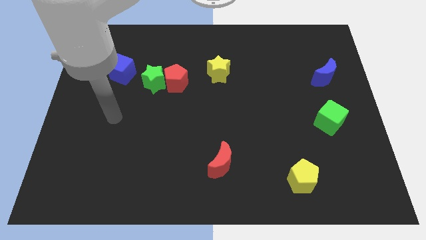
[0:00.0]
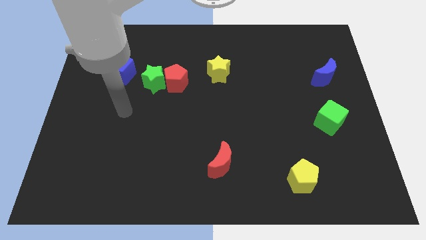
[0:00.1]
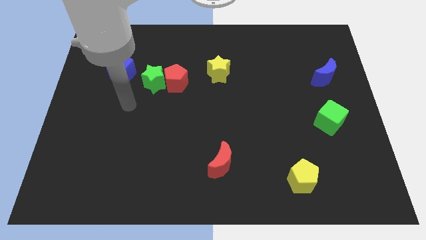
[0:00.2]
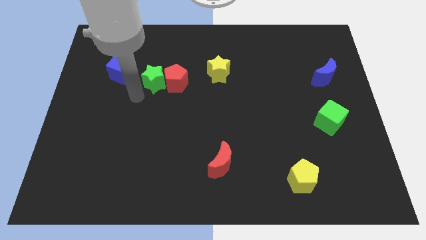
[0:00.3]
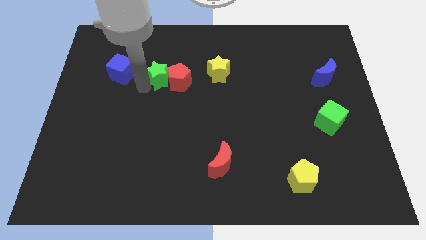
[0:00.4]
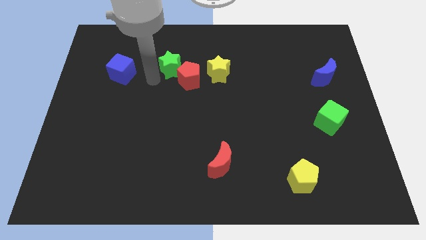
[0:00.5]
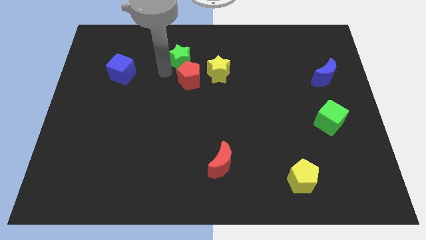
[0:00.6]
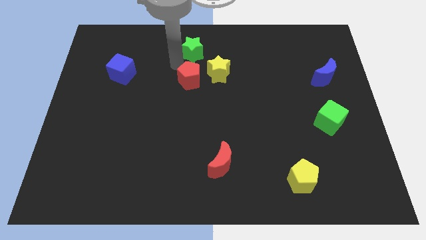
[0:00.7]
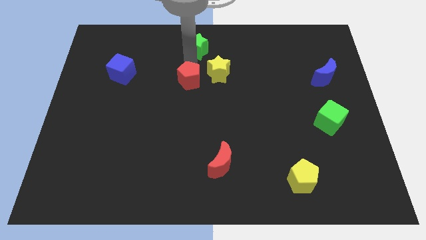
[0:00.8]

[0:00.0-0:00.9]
separate the red pentagon from the green star

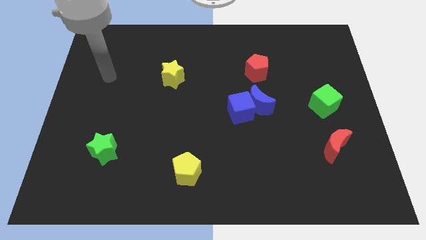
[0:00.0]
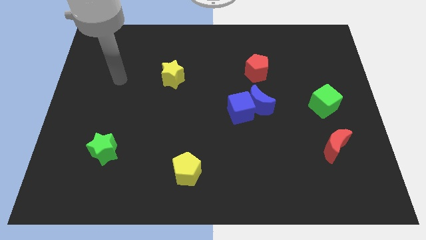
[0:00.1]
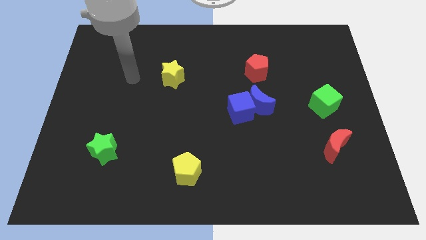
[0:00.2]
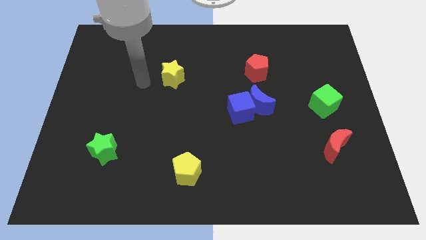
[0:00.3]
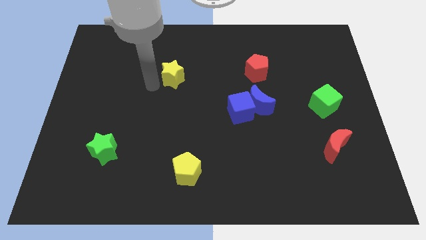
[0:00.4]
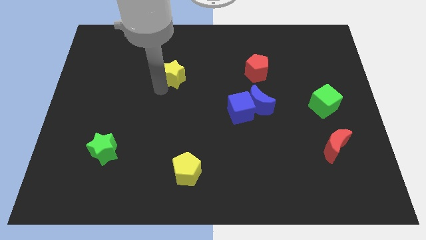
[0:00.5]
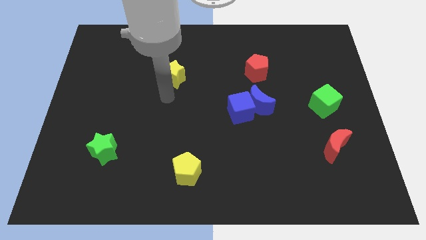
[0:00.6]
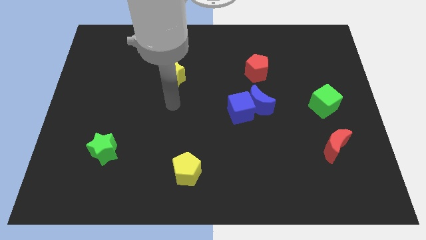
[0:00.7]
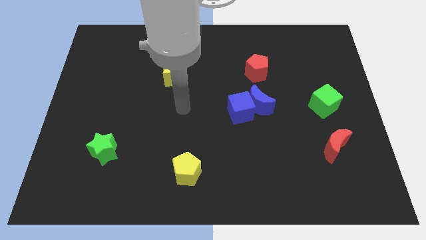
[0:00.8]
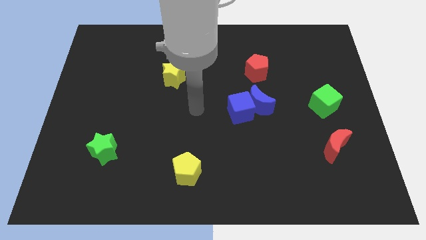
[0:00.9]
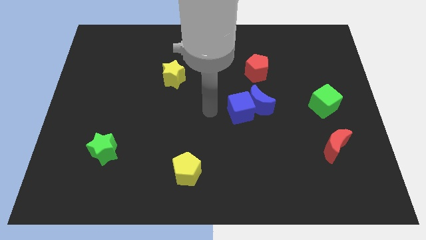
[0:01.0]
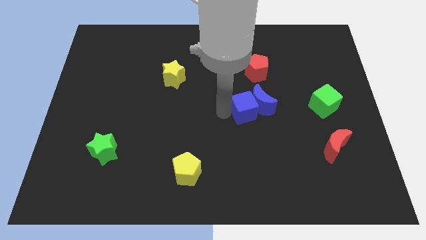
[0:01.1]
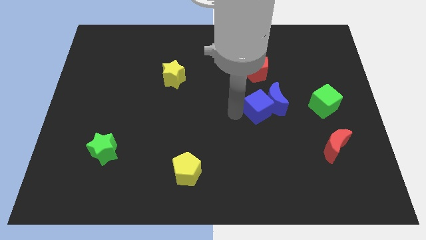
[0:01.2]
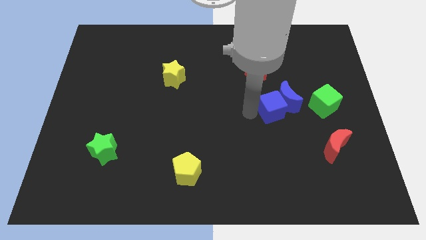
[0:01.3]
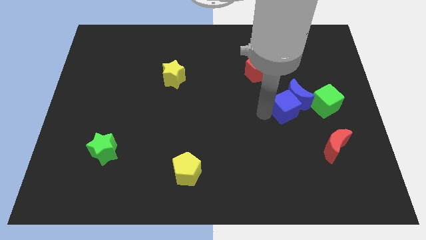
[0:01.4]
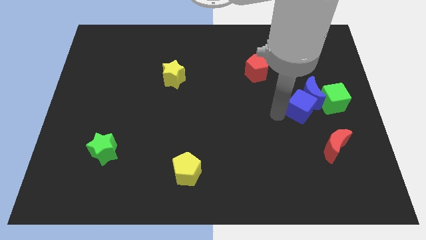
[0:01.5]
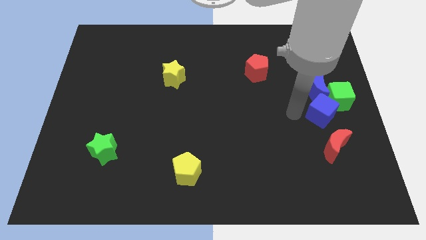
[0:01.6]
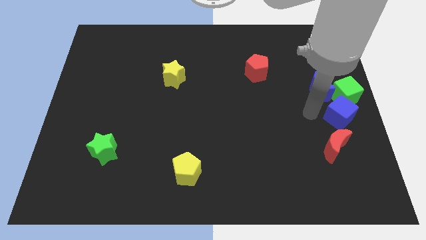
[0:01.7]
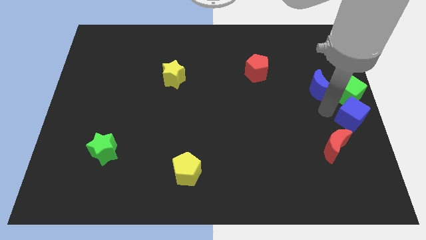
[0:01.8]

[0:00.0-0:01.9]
separate the blue moon from the blue cube

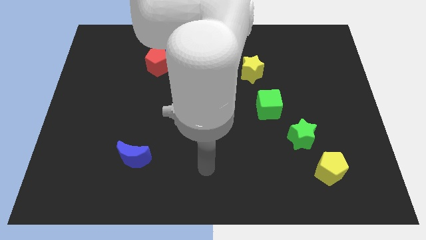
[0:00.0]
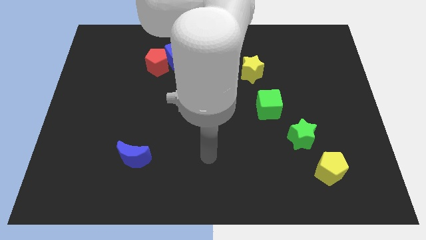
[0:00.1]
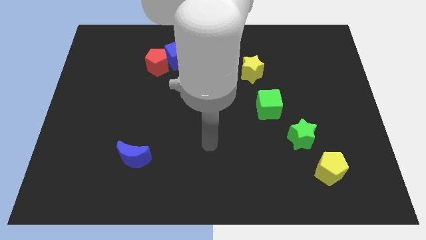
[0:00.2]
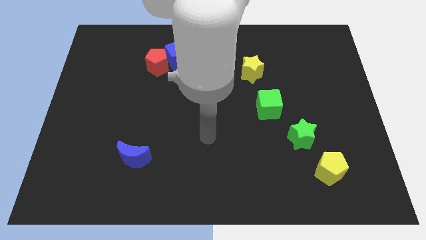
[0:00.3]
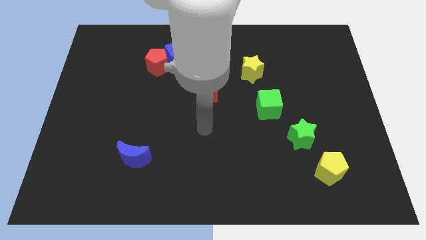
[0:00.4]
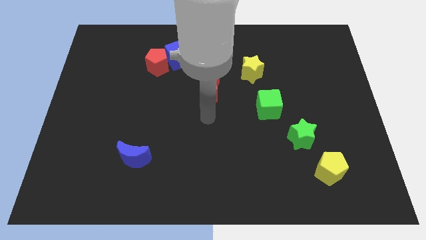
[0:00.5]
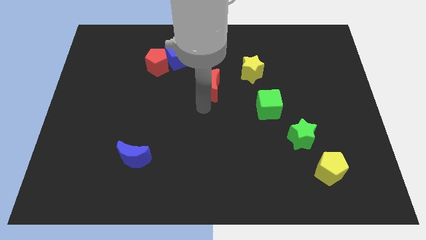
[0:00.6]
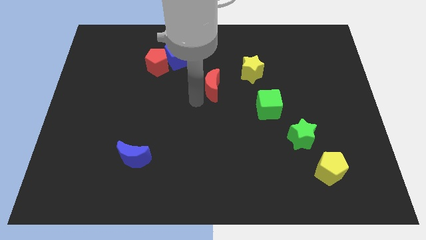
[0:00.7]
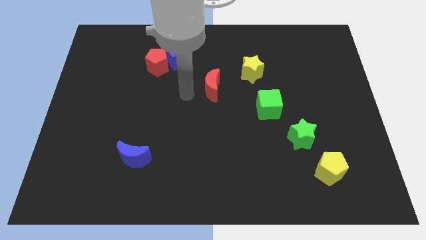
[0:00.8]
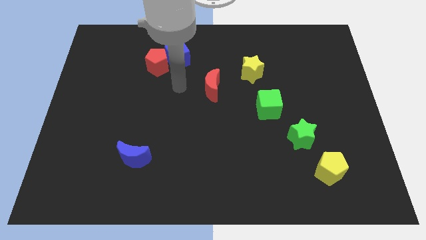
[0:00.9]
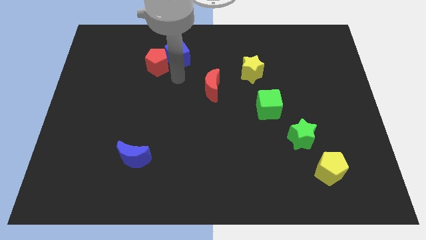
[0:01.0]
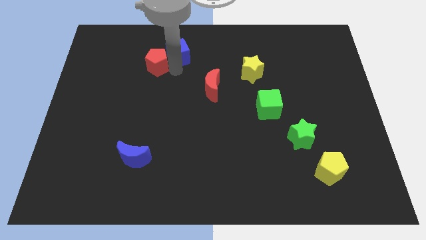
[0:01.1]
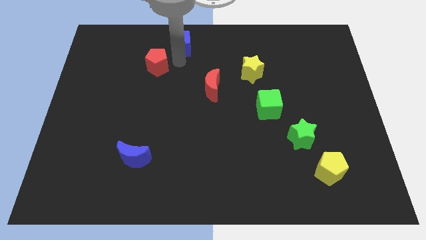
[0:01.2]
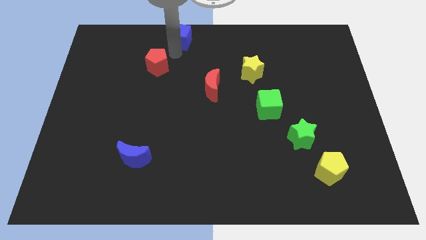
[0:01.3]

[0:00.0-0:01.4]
move the red pentagon away from the blue cube

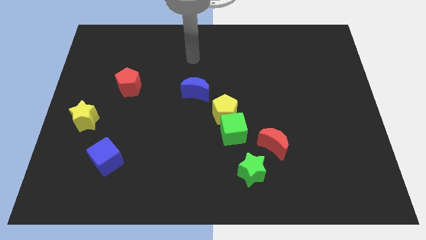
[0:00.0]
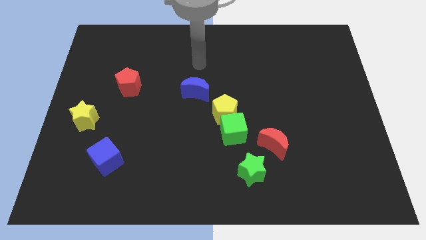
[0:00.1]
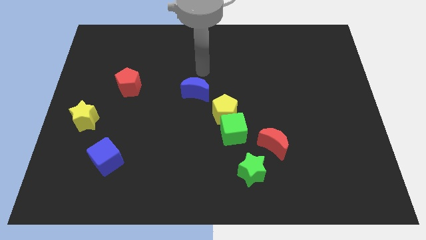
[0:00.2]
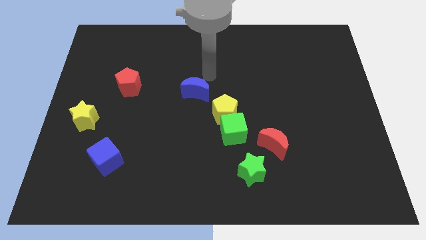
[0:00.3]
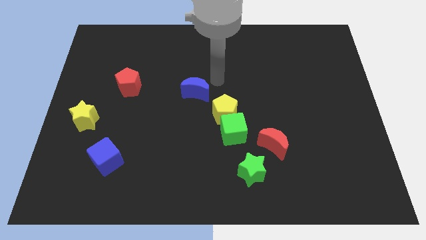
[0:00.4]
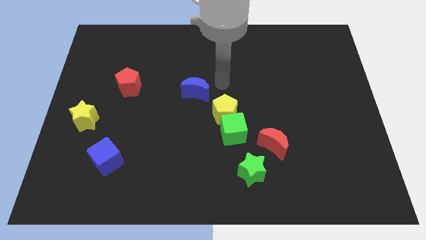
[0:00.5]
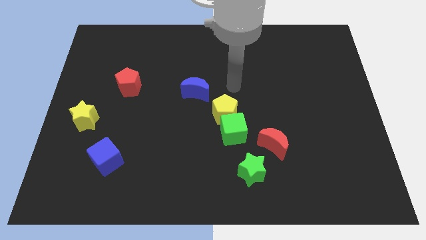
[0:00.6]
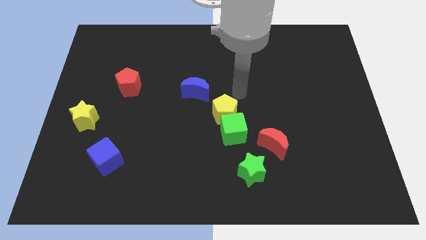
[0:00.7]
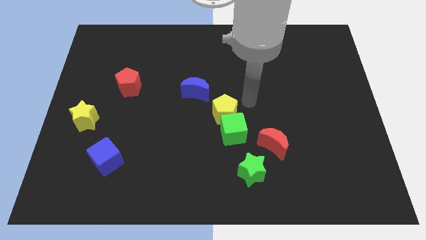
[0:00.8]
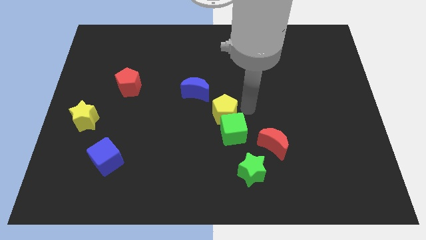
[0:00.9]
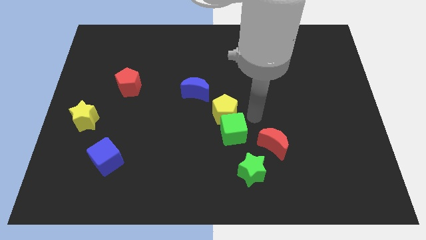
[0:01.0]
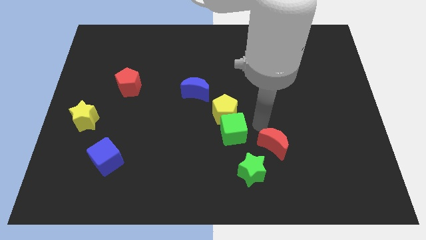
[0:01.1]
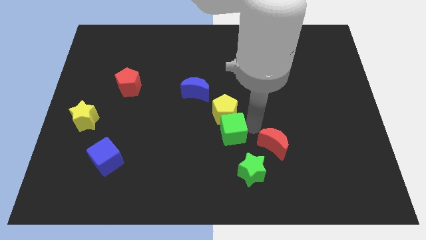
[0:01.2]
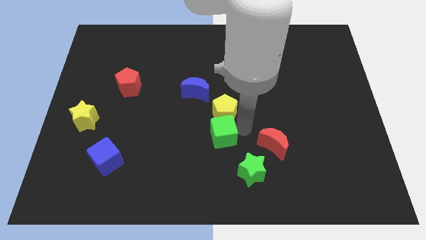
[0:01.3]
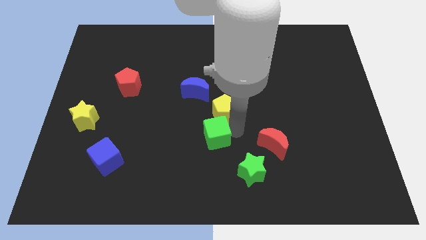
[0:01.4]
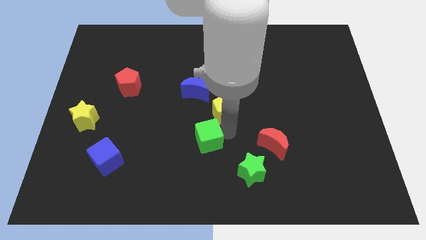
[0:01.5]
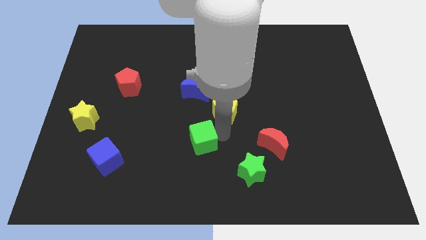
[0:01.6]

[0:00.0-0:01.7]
separate the green cube from the yellow pentagon and red moon

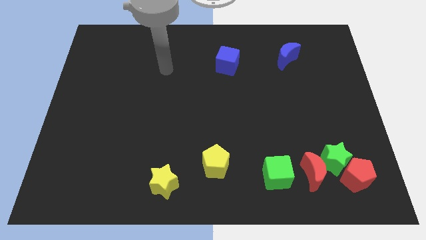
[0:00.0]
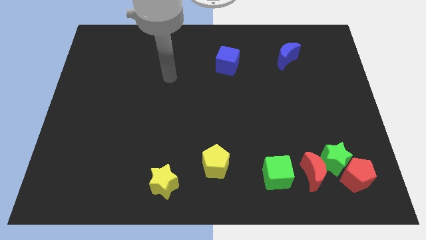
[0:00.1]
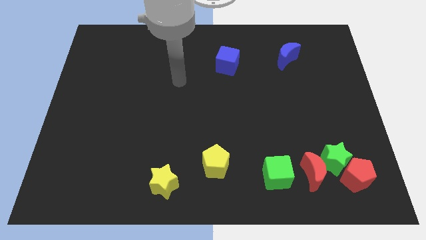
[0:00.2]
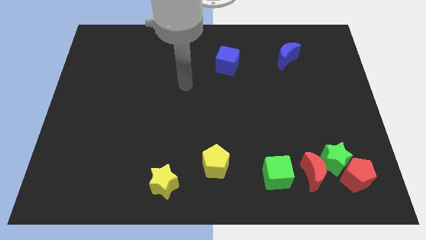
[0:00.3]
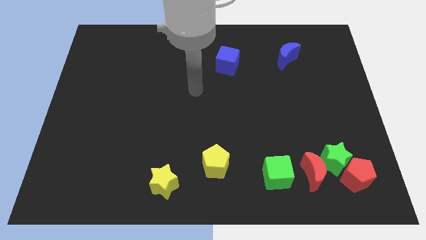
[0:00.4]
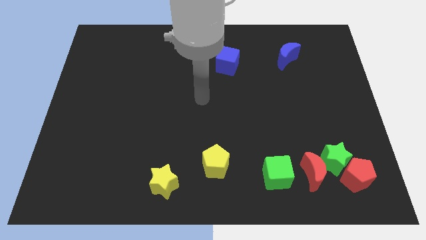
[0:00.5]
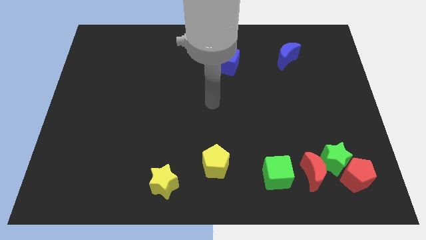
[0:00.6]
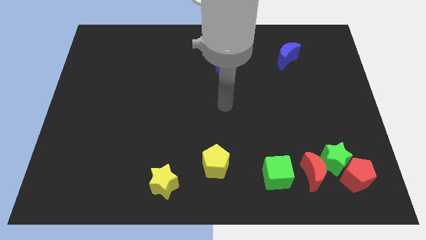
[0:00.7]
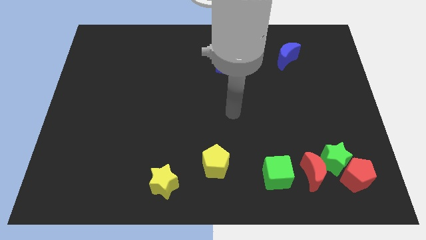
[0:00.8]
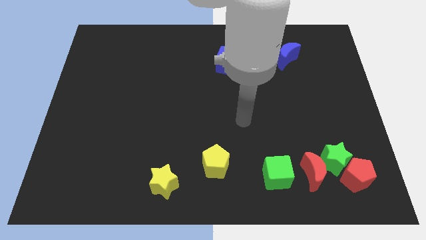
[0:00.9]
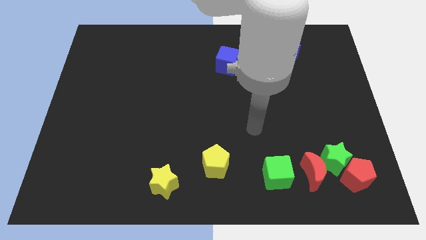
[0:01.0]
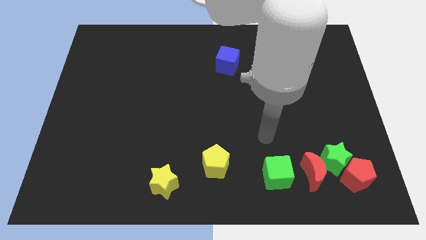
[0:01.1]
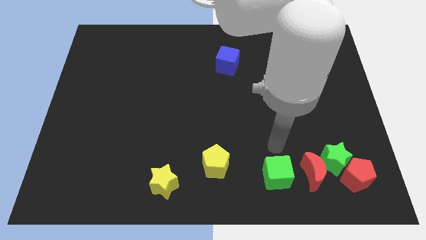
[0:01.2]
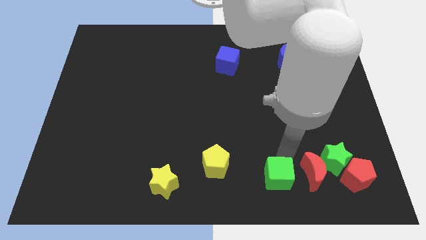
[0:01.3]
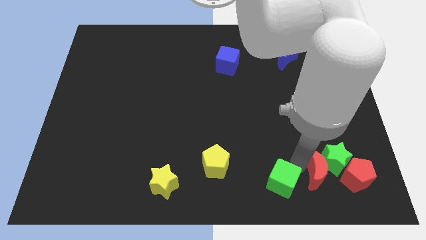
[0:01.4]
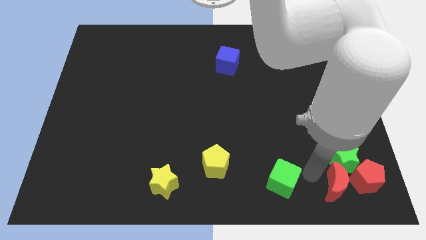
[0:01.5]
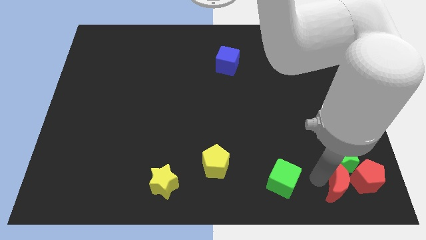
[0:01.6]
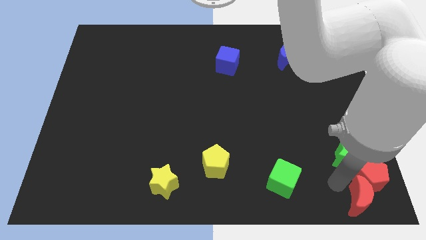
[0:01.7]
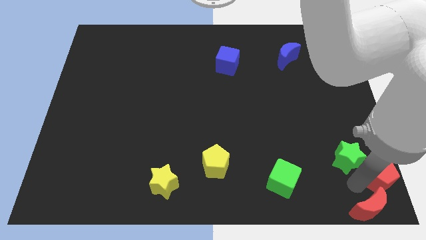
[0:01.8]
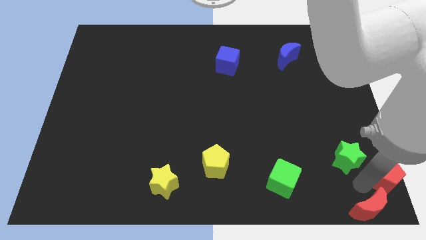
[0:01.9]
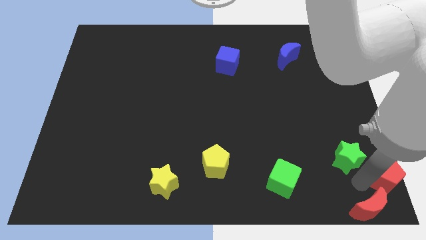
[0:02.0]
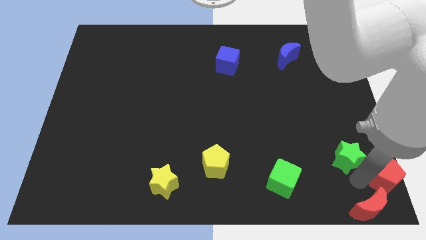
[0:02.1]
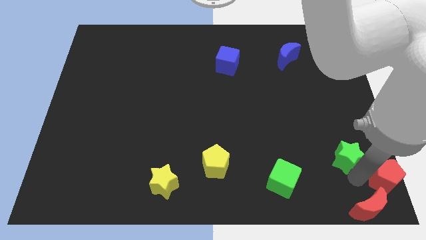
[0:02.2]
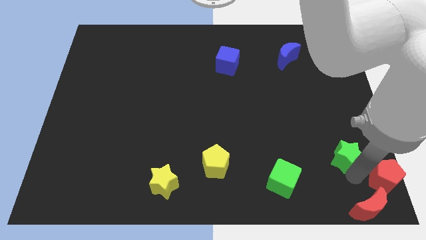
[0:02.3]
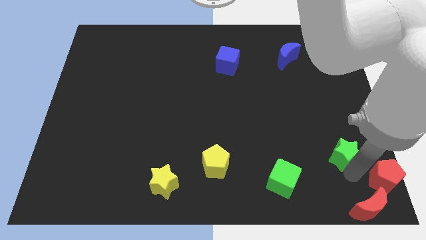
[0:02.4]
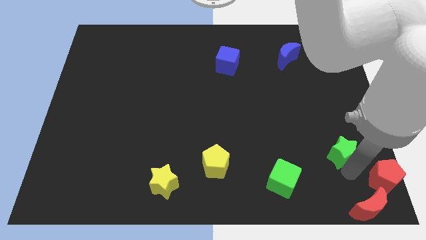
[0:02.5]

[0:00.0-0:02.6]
pull the green star apart from the red pentagon and red moon

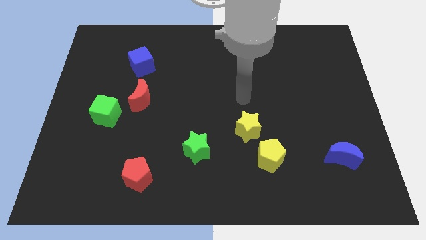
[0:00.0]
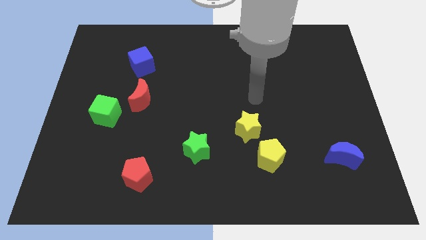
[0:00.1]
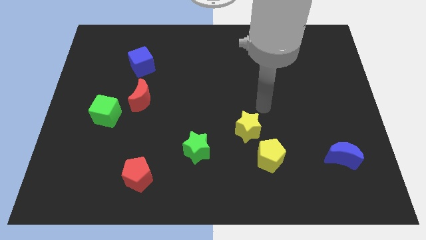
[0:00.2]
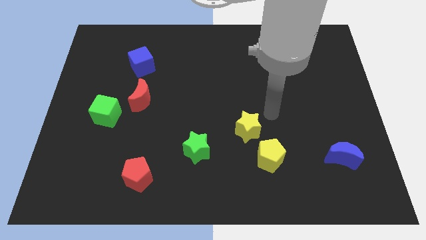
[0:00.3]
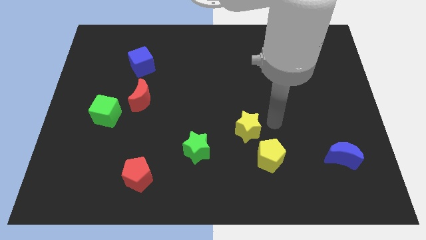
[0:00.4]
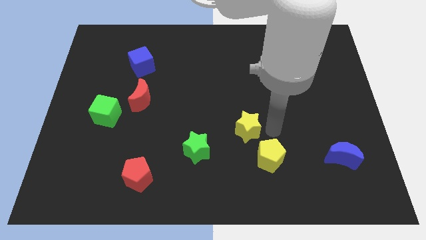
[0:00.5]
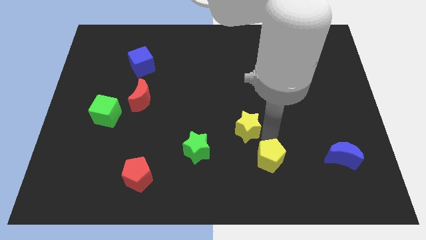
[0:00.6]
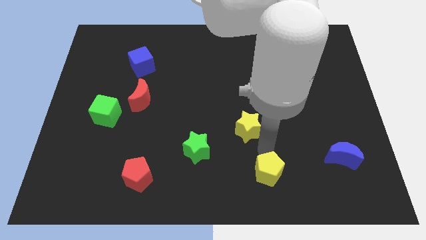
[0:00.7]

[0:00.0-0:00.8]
separate the yellow star from the yellow pentagon
